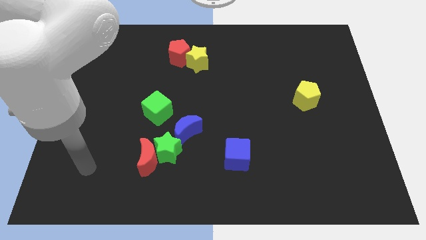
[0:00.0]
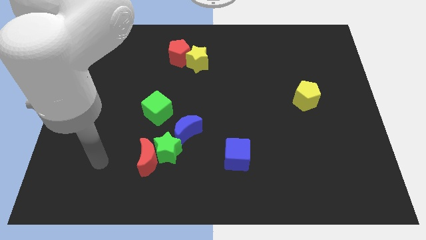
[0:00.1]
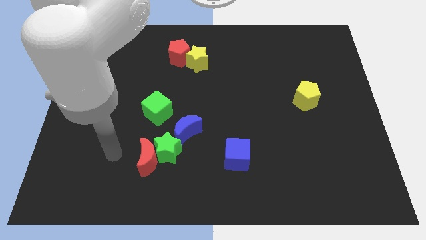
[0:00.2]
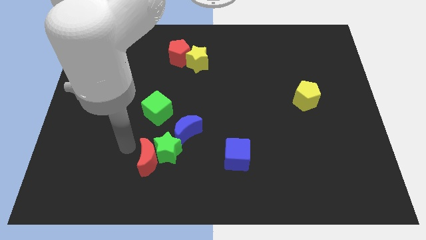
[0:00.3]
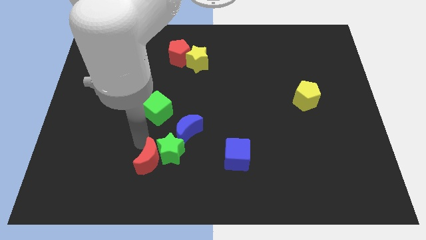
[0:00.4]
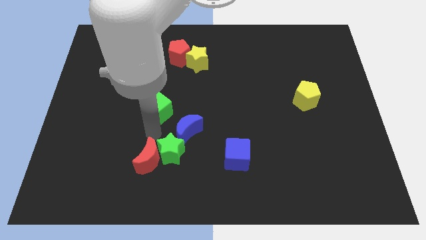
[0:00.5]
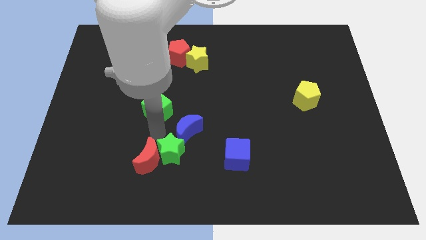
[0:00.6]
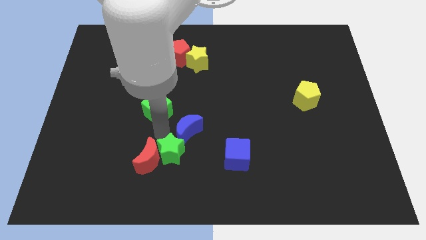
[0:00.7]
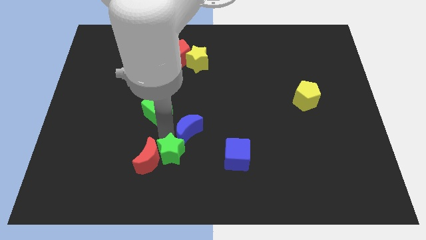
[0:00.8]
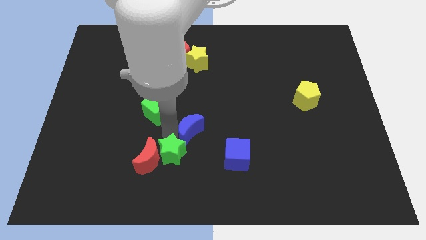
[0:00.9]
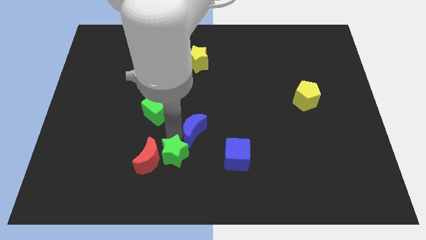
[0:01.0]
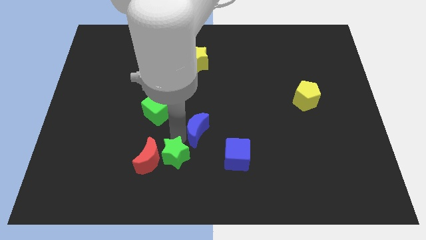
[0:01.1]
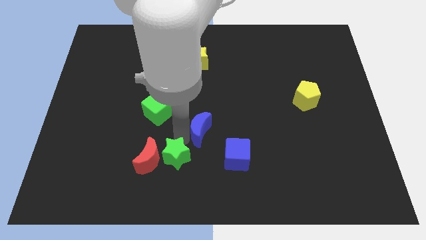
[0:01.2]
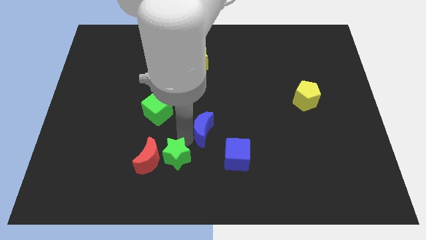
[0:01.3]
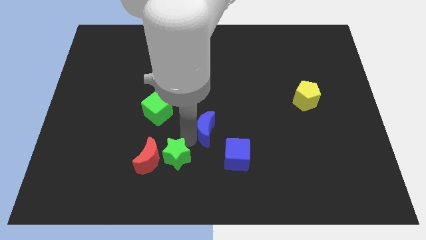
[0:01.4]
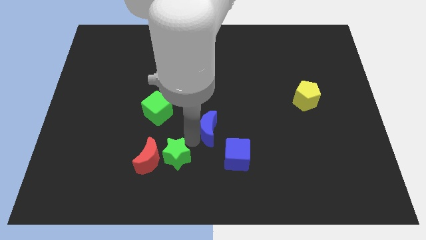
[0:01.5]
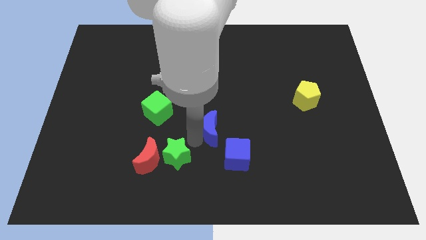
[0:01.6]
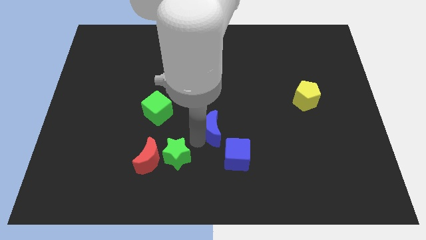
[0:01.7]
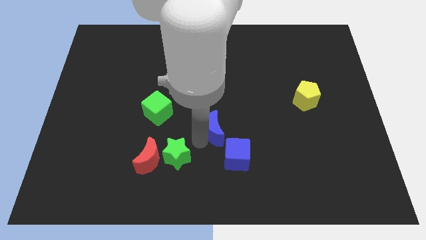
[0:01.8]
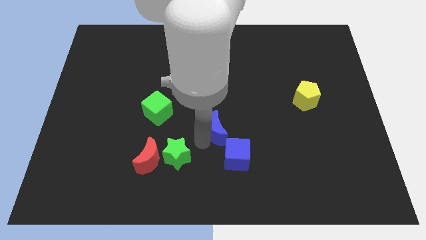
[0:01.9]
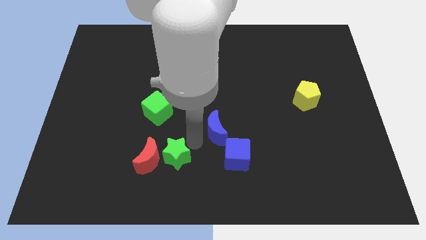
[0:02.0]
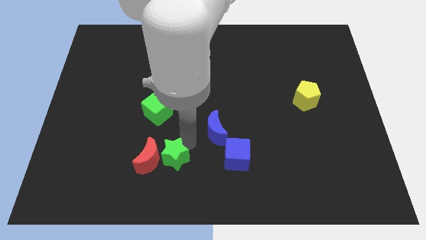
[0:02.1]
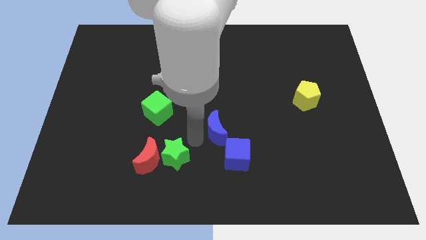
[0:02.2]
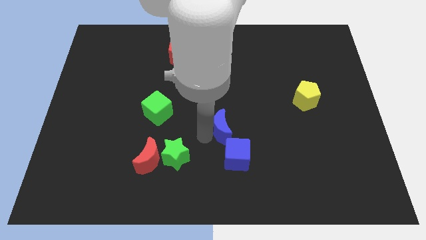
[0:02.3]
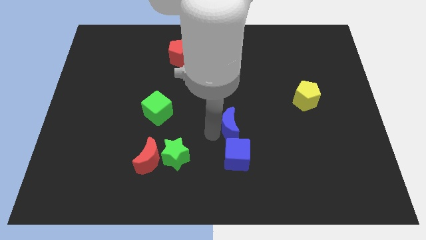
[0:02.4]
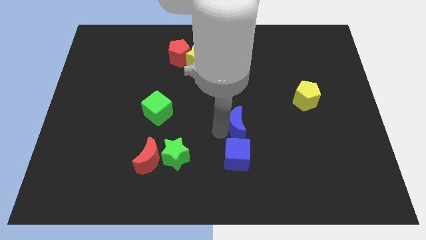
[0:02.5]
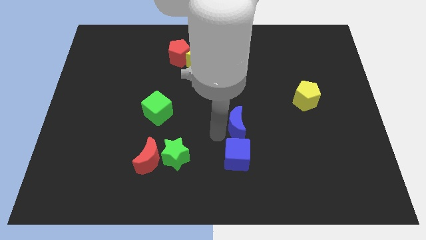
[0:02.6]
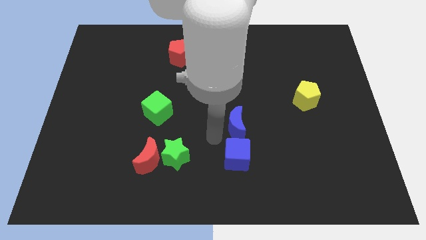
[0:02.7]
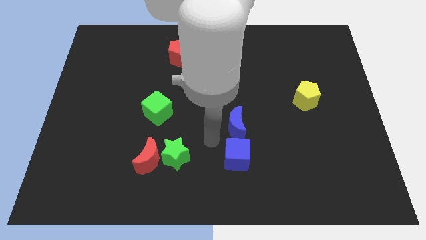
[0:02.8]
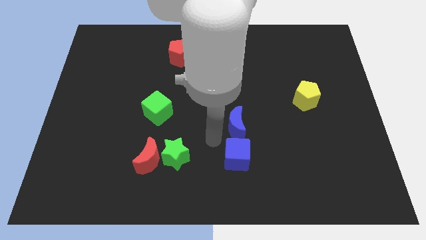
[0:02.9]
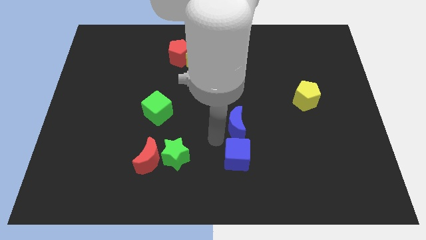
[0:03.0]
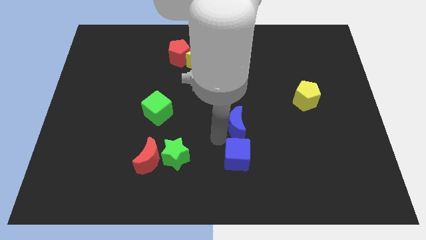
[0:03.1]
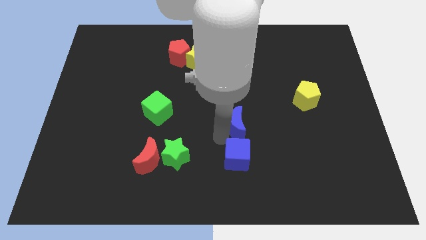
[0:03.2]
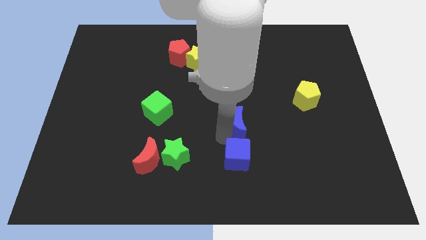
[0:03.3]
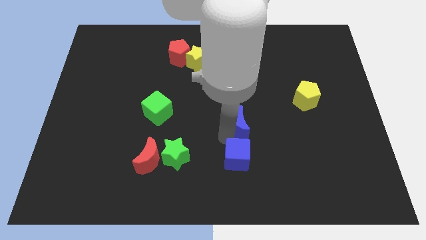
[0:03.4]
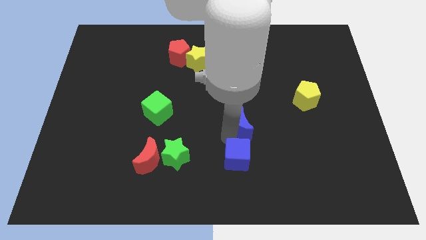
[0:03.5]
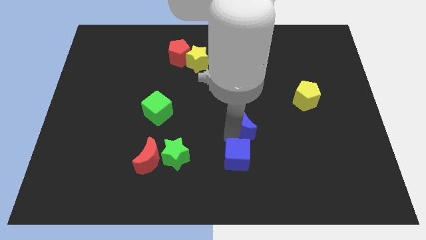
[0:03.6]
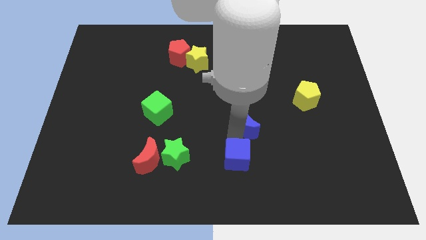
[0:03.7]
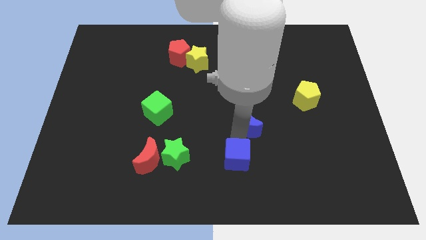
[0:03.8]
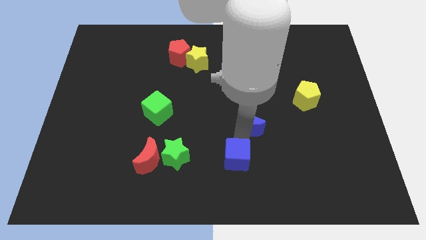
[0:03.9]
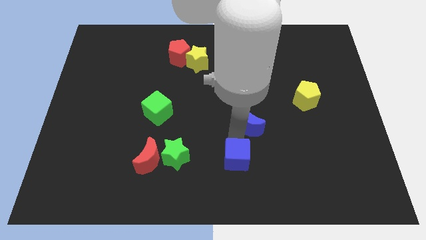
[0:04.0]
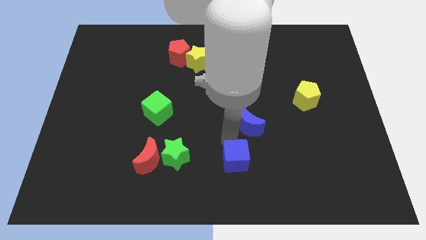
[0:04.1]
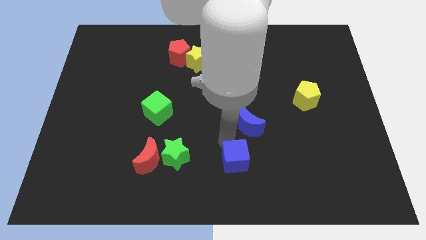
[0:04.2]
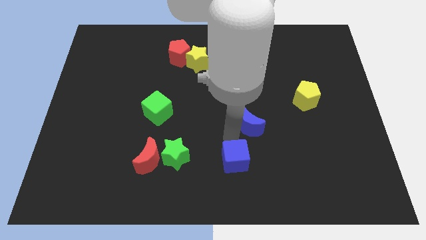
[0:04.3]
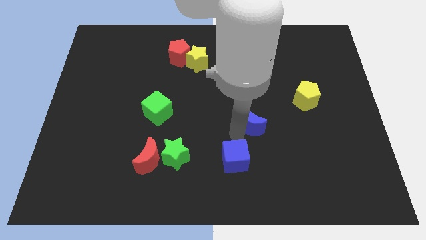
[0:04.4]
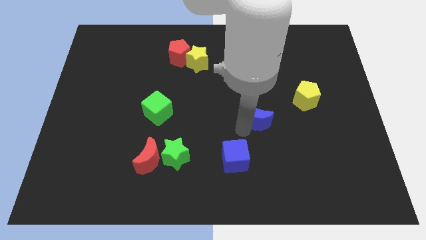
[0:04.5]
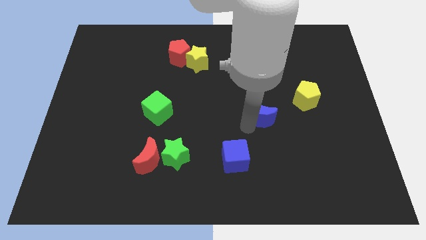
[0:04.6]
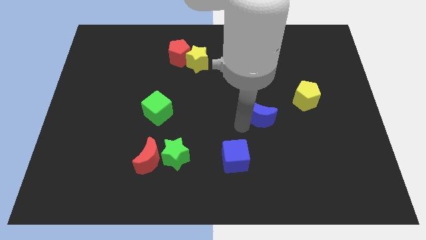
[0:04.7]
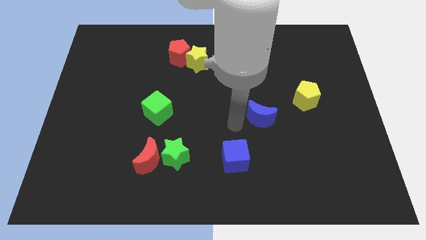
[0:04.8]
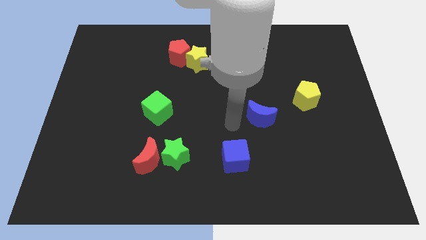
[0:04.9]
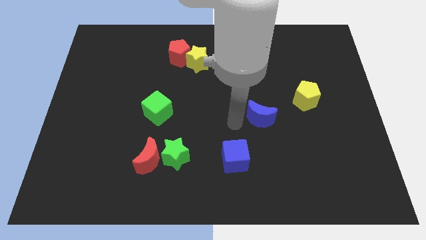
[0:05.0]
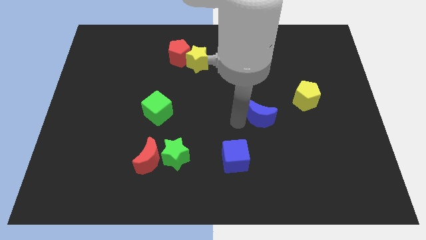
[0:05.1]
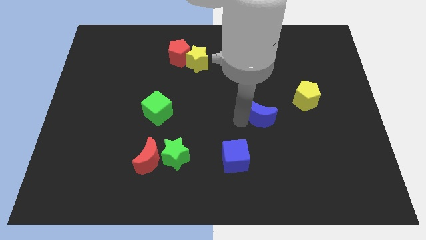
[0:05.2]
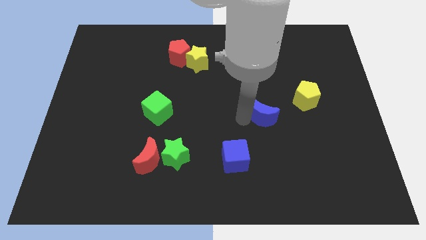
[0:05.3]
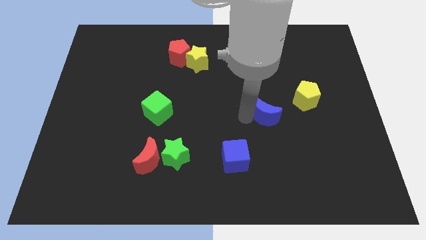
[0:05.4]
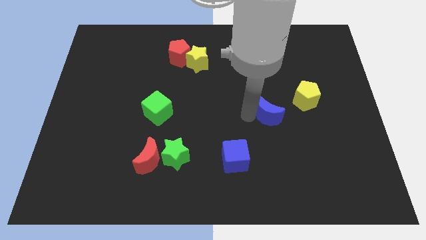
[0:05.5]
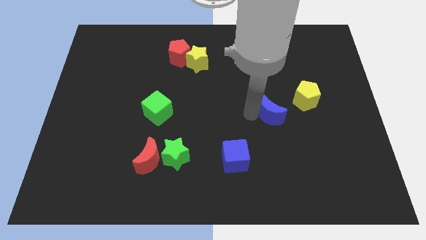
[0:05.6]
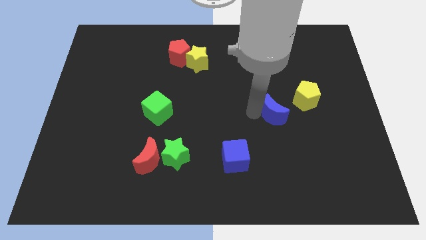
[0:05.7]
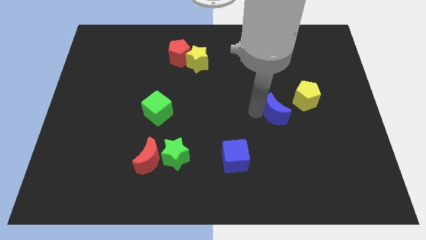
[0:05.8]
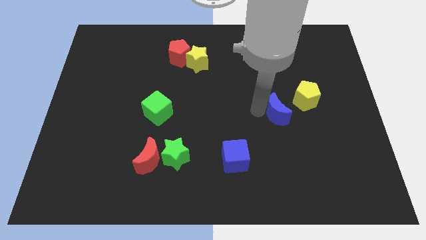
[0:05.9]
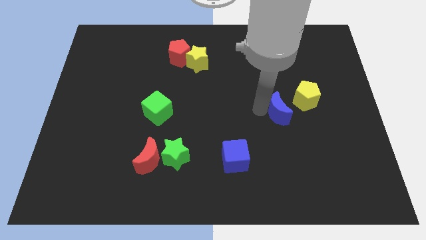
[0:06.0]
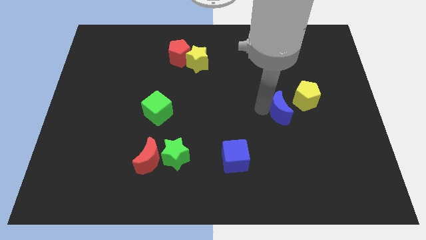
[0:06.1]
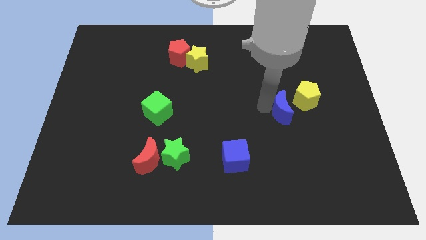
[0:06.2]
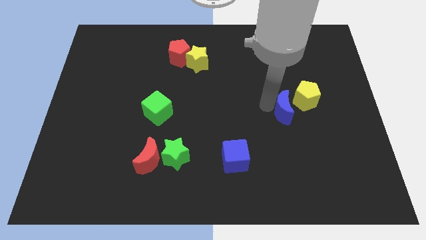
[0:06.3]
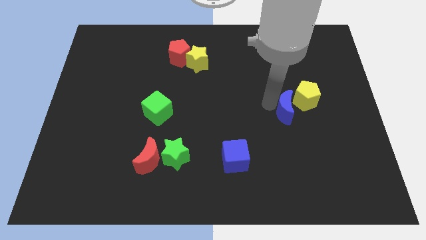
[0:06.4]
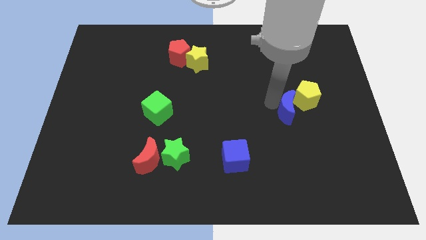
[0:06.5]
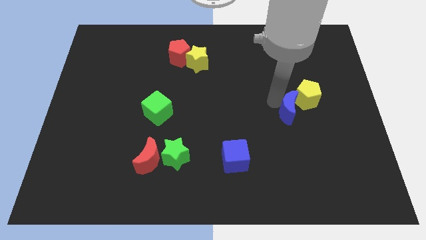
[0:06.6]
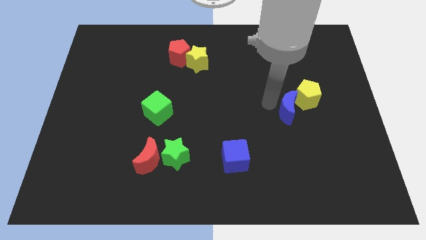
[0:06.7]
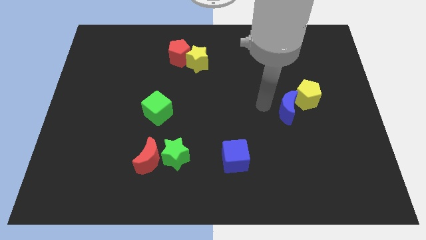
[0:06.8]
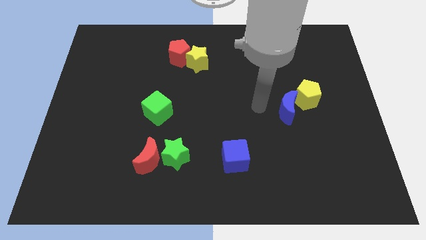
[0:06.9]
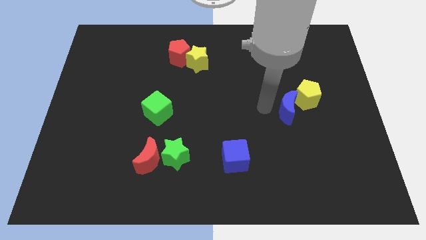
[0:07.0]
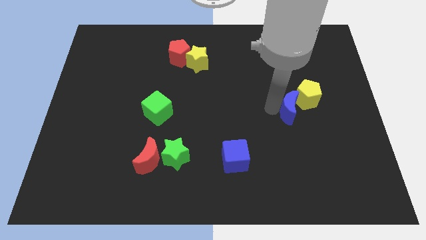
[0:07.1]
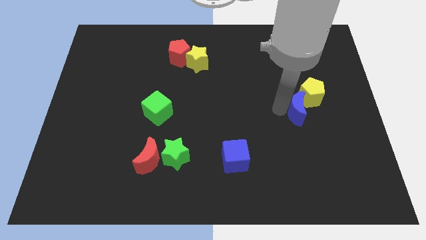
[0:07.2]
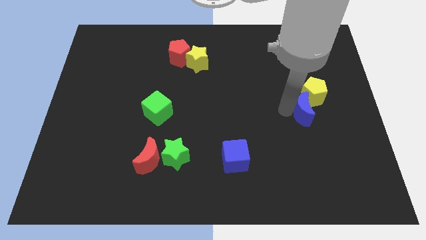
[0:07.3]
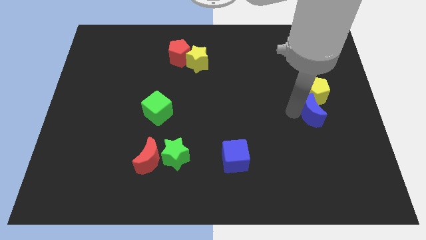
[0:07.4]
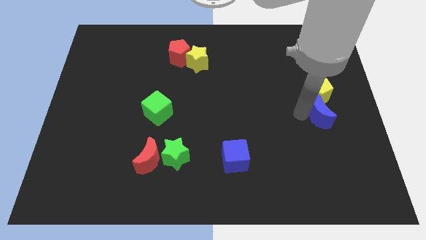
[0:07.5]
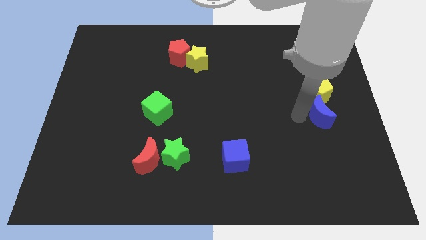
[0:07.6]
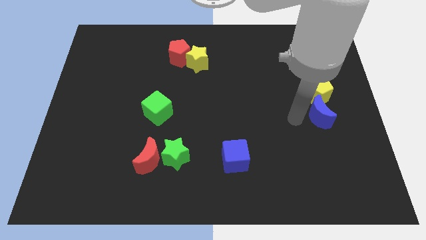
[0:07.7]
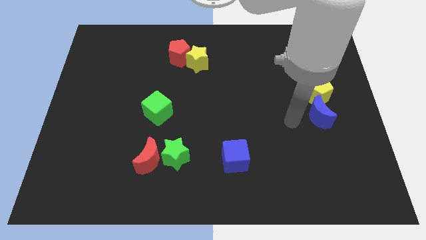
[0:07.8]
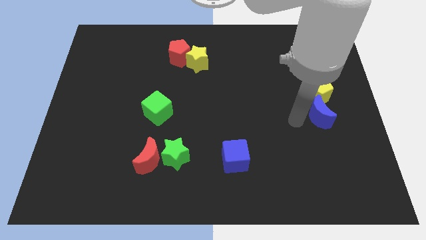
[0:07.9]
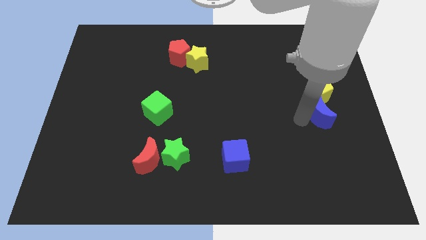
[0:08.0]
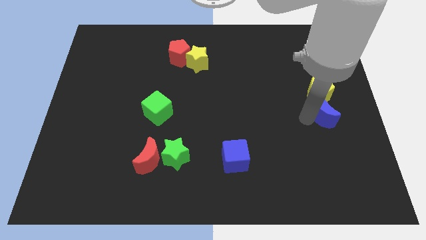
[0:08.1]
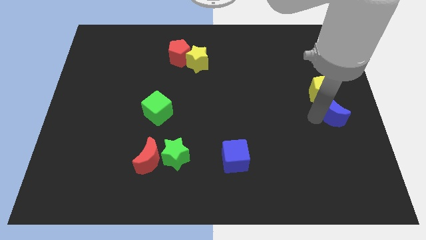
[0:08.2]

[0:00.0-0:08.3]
put the blue moon to the right side
